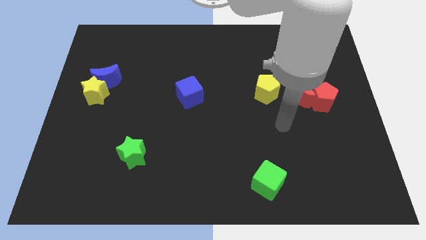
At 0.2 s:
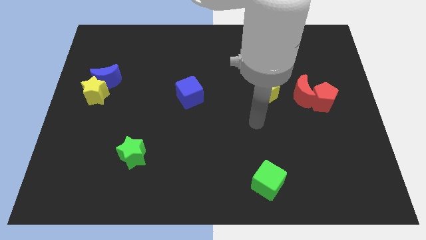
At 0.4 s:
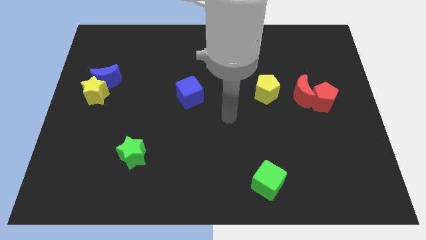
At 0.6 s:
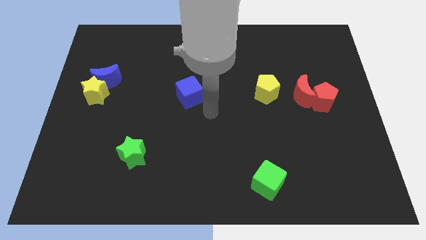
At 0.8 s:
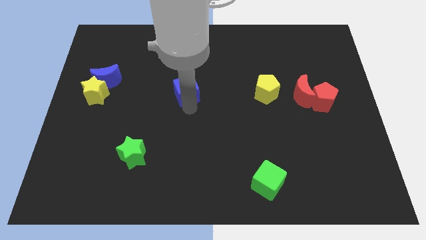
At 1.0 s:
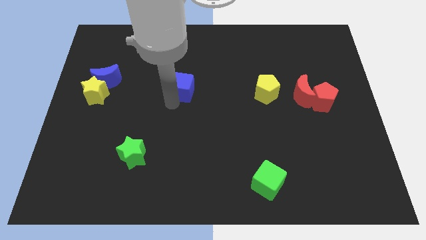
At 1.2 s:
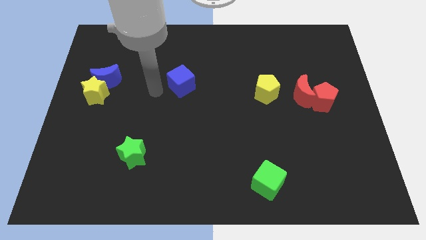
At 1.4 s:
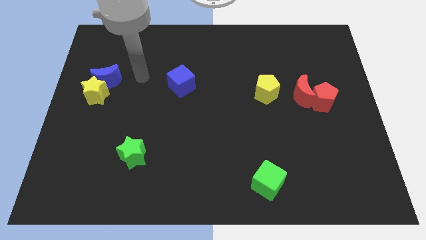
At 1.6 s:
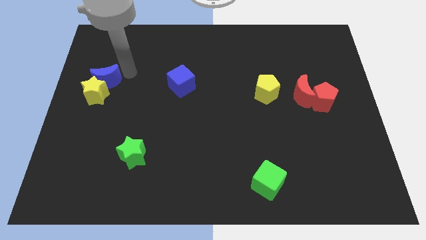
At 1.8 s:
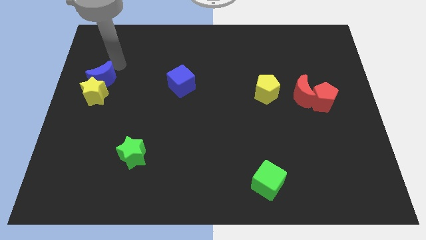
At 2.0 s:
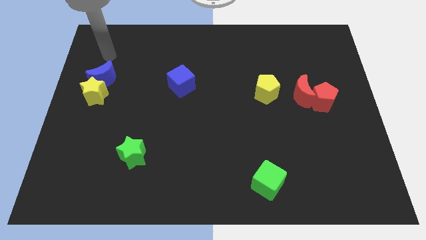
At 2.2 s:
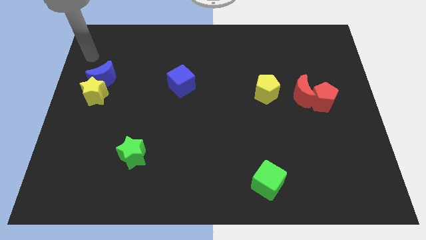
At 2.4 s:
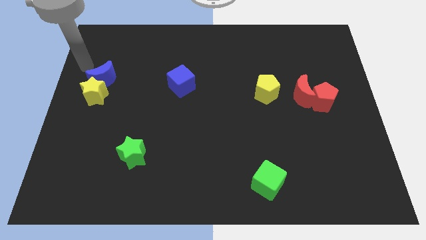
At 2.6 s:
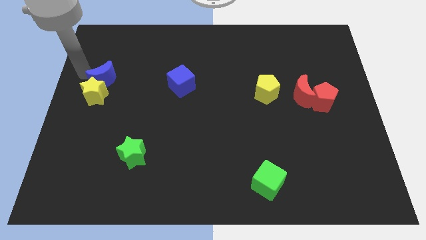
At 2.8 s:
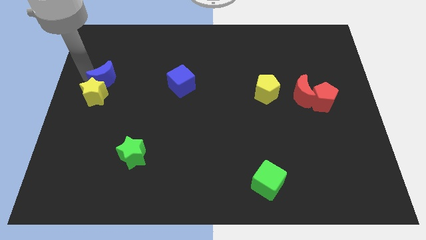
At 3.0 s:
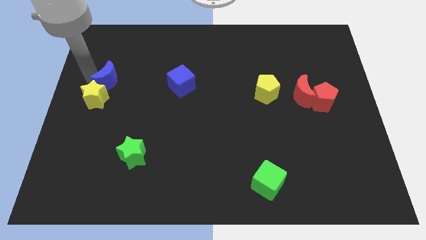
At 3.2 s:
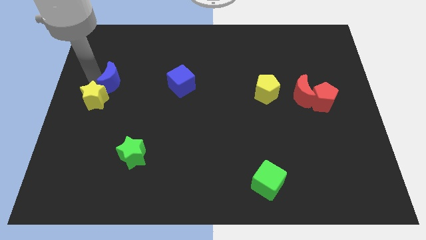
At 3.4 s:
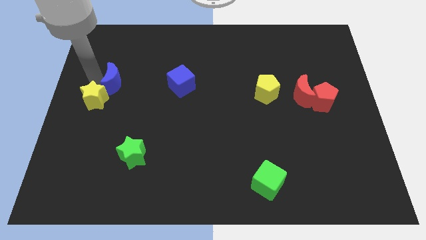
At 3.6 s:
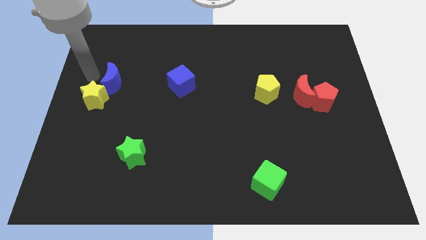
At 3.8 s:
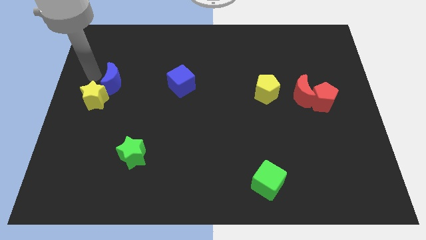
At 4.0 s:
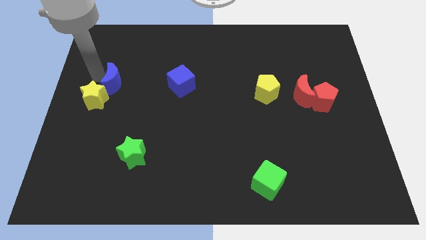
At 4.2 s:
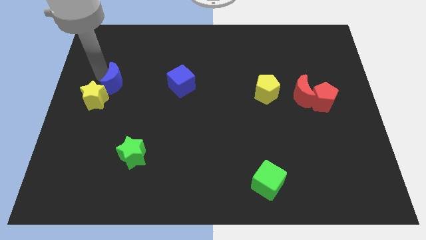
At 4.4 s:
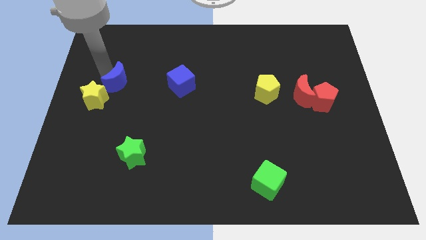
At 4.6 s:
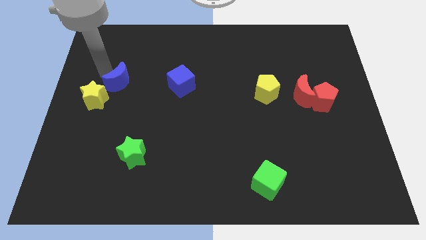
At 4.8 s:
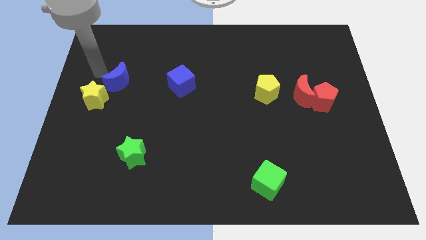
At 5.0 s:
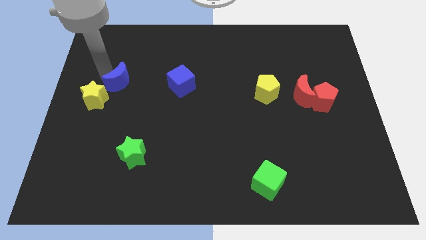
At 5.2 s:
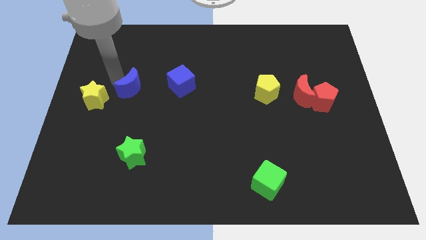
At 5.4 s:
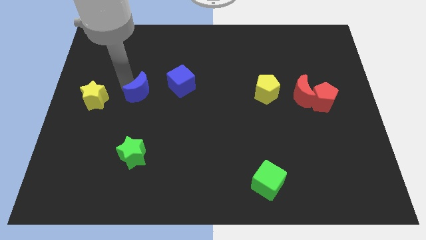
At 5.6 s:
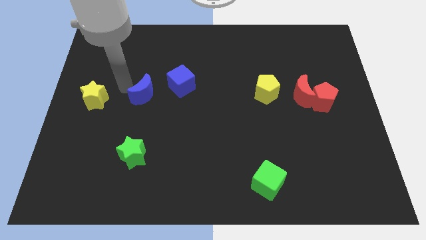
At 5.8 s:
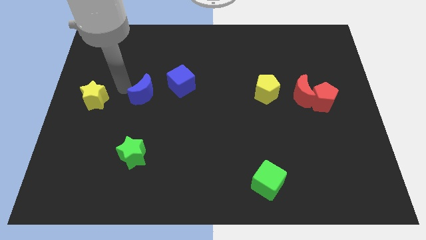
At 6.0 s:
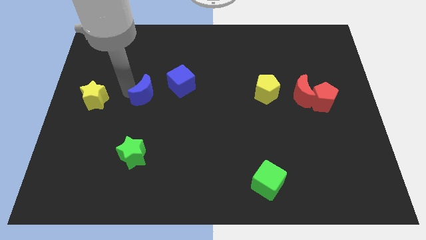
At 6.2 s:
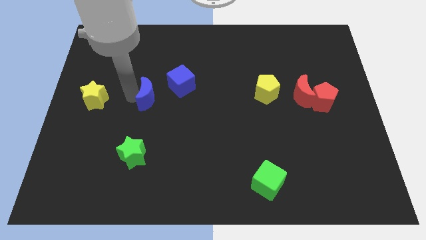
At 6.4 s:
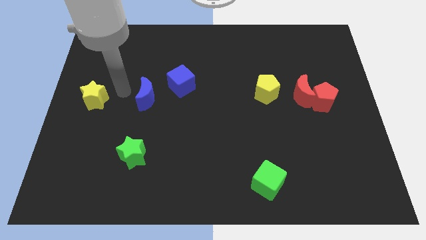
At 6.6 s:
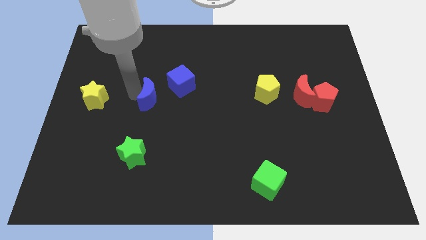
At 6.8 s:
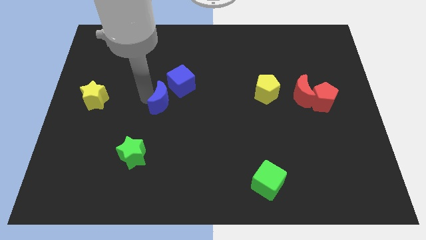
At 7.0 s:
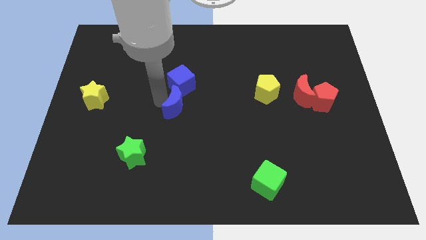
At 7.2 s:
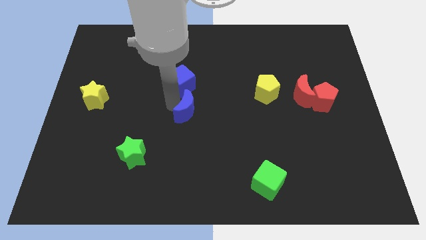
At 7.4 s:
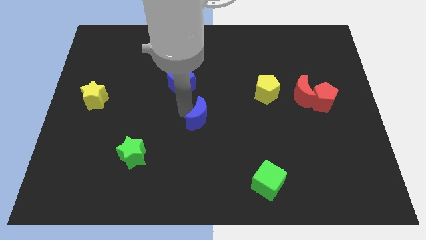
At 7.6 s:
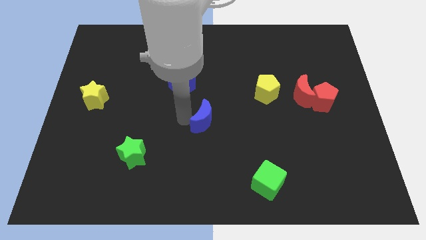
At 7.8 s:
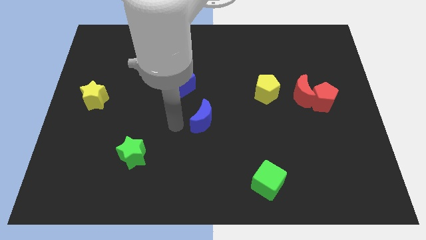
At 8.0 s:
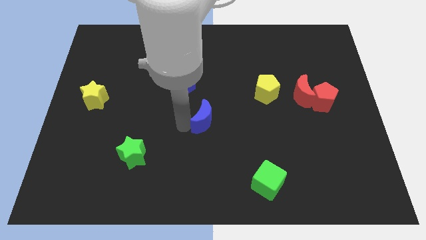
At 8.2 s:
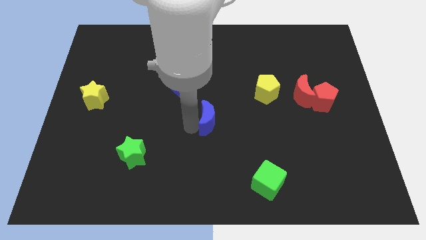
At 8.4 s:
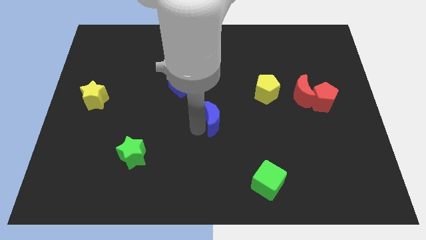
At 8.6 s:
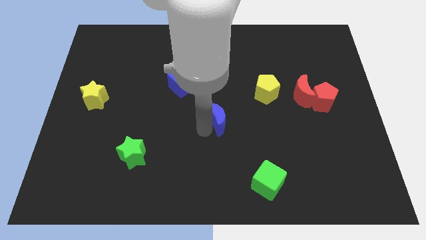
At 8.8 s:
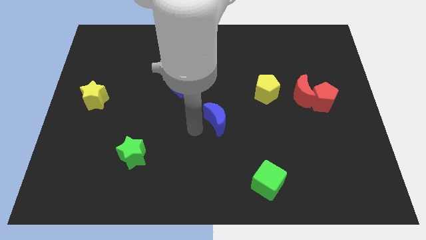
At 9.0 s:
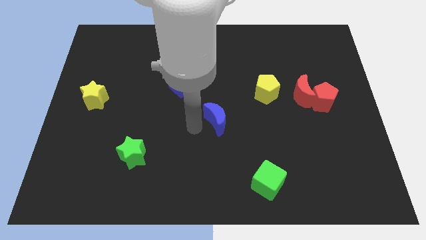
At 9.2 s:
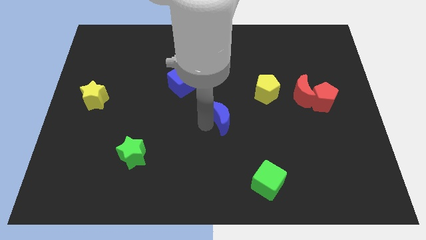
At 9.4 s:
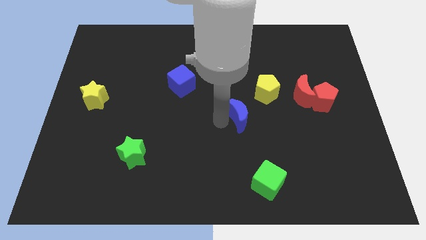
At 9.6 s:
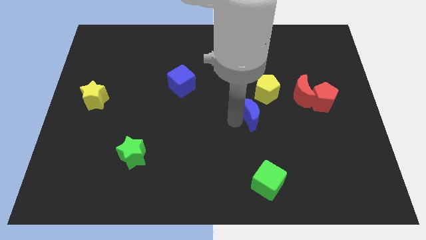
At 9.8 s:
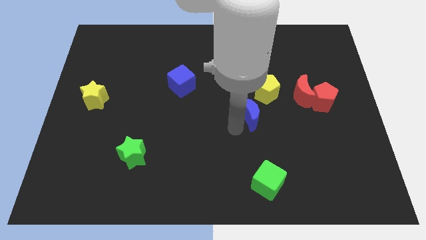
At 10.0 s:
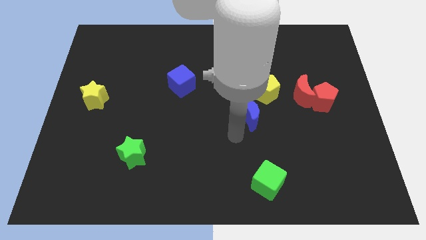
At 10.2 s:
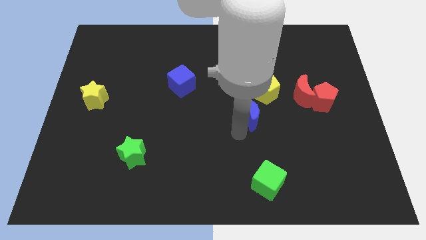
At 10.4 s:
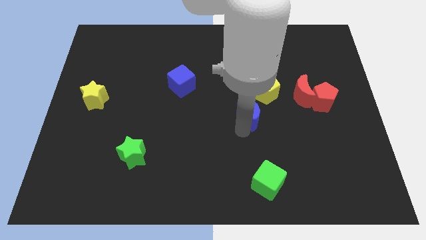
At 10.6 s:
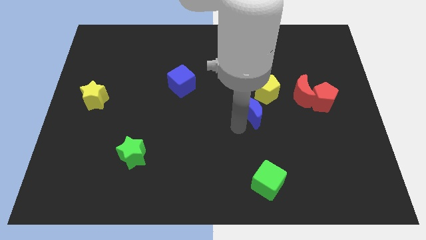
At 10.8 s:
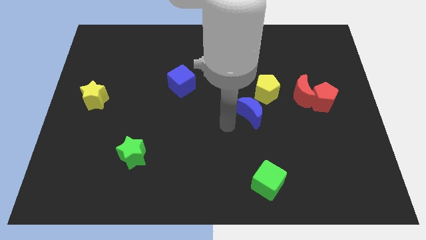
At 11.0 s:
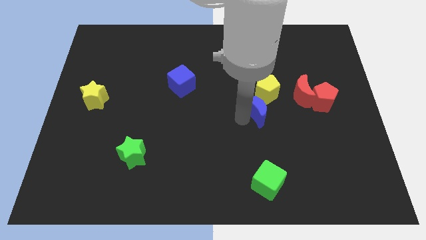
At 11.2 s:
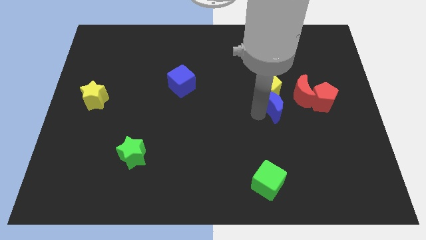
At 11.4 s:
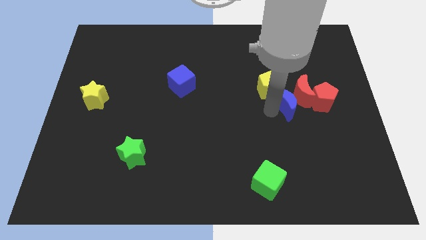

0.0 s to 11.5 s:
slide the blue moon next to the red moon

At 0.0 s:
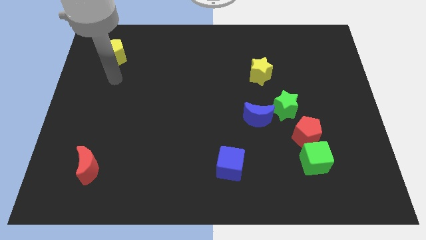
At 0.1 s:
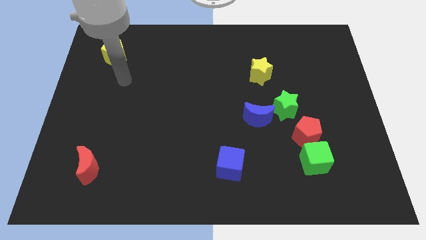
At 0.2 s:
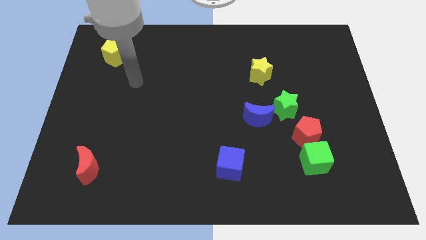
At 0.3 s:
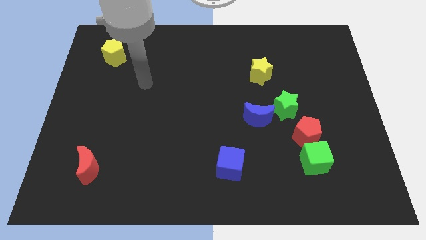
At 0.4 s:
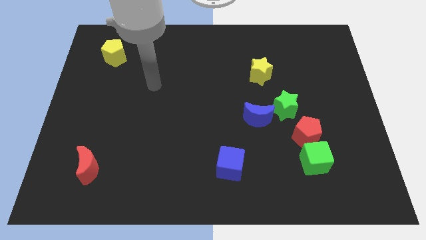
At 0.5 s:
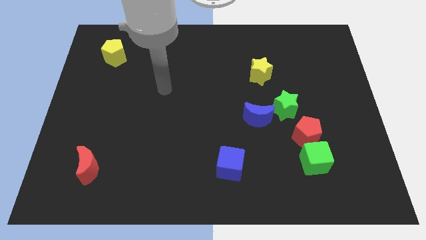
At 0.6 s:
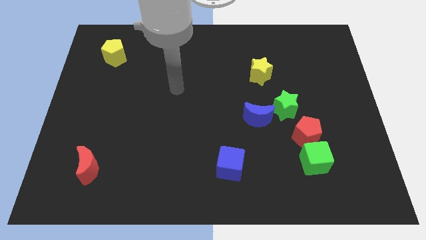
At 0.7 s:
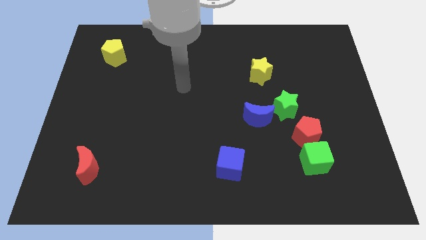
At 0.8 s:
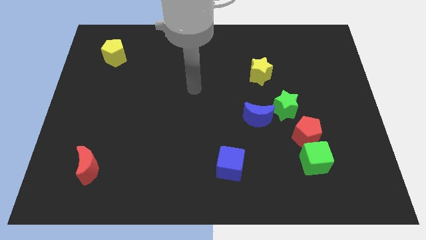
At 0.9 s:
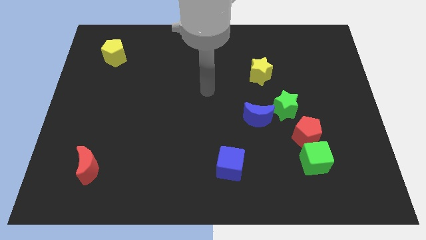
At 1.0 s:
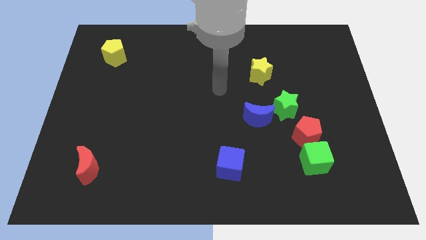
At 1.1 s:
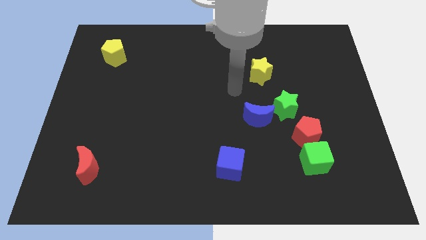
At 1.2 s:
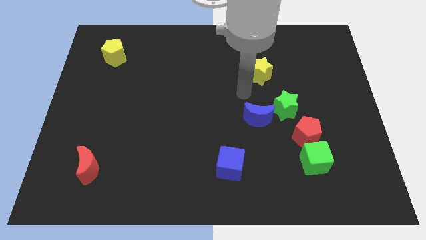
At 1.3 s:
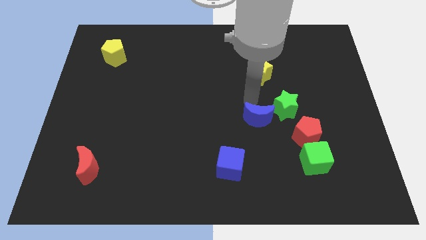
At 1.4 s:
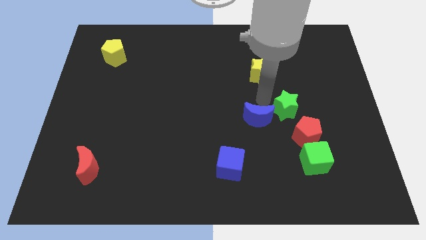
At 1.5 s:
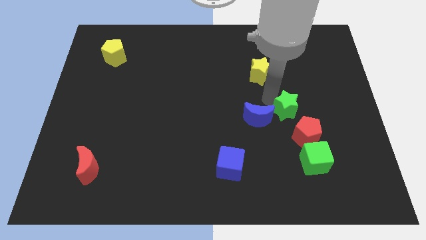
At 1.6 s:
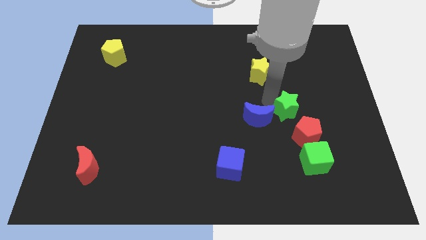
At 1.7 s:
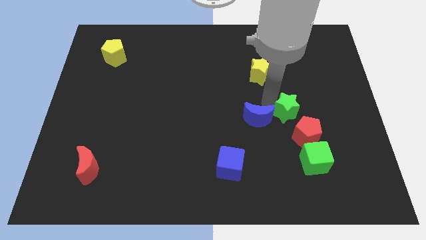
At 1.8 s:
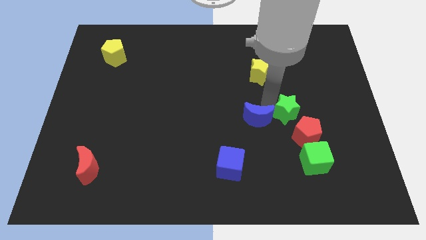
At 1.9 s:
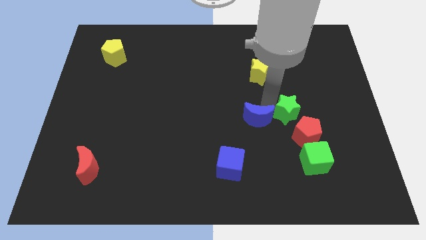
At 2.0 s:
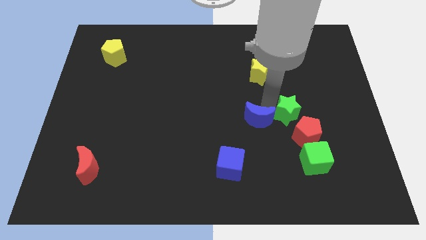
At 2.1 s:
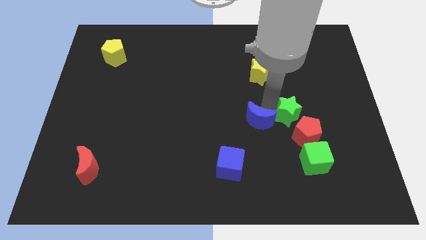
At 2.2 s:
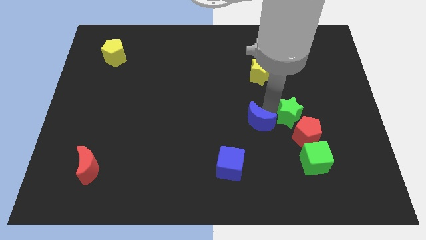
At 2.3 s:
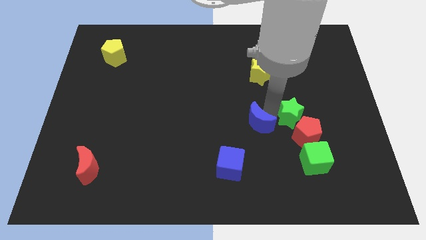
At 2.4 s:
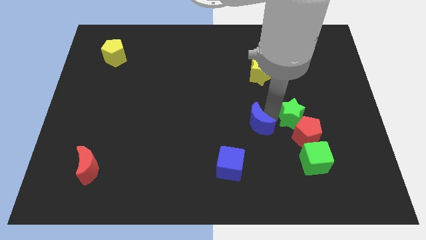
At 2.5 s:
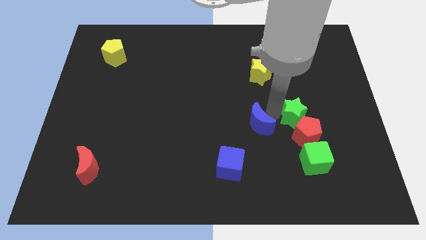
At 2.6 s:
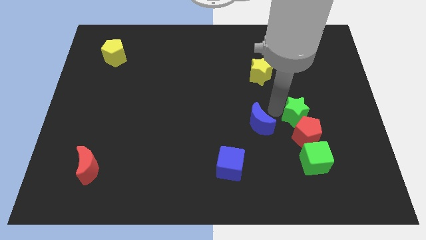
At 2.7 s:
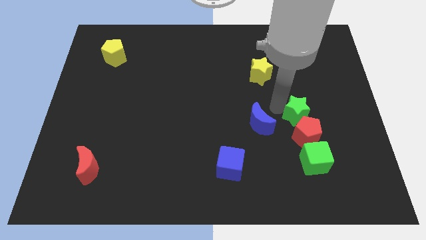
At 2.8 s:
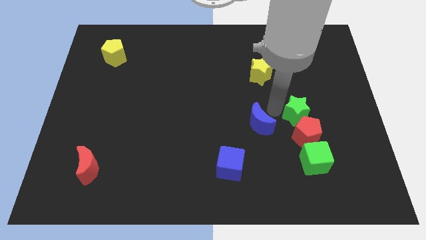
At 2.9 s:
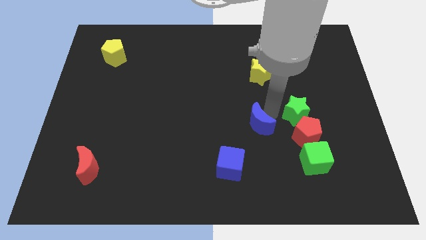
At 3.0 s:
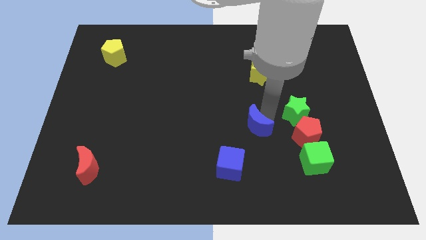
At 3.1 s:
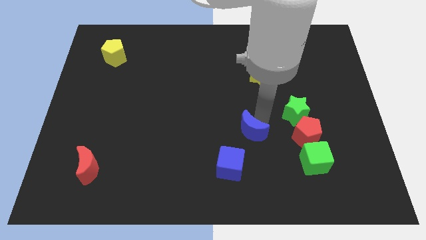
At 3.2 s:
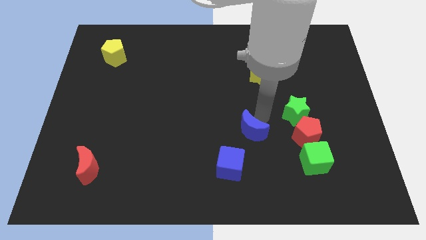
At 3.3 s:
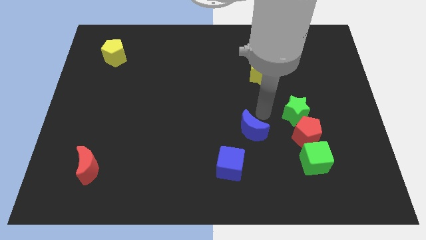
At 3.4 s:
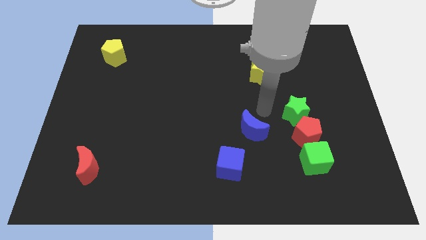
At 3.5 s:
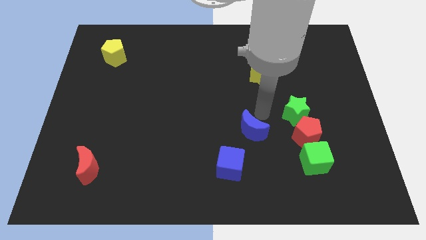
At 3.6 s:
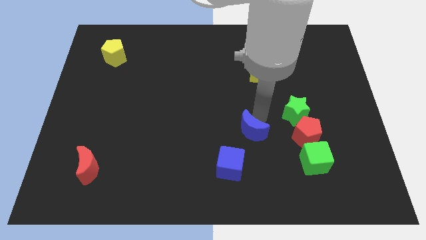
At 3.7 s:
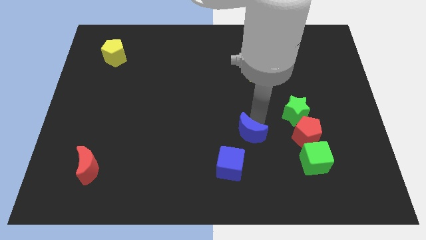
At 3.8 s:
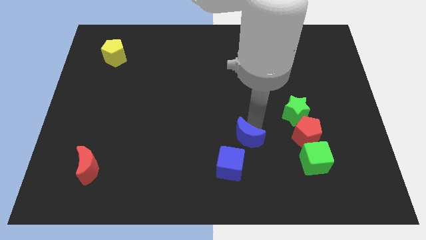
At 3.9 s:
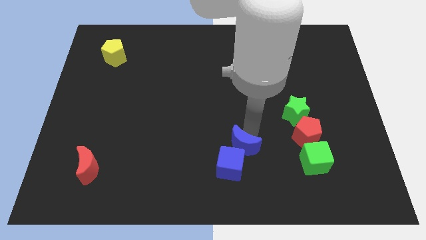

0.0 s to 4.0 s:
push the blue moon to the blue cube
